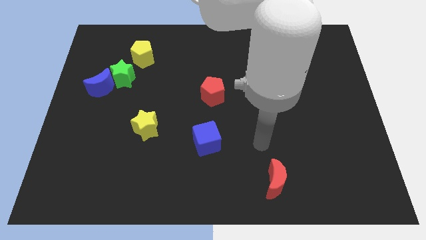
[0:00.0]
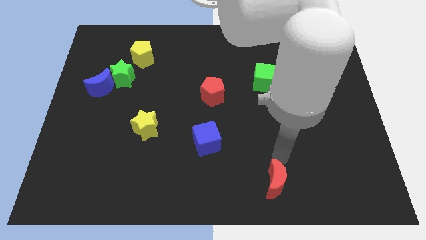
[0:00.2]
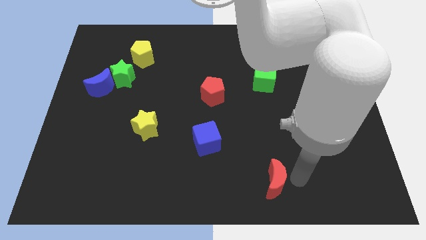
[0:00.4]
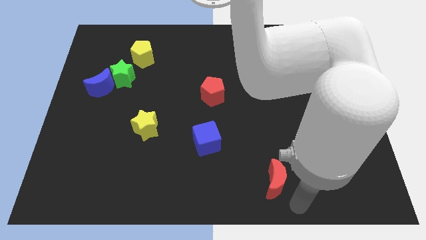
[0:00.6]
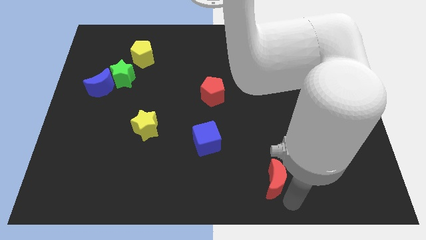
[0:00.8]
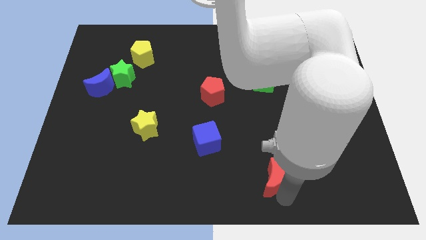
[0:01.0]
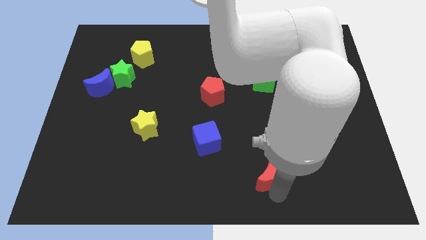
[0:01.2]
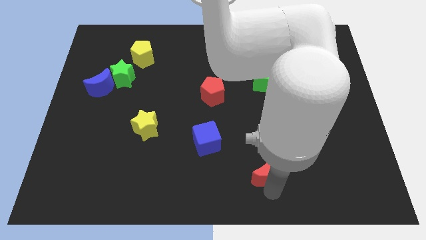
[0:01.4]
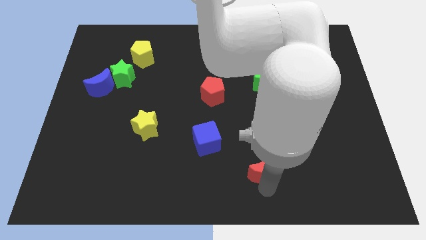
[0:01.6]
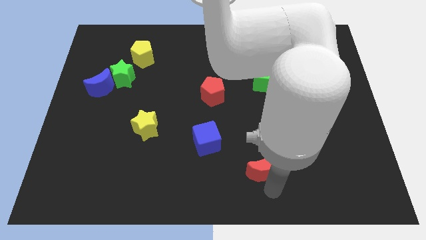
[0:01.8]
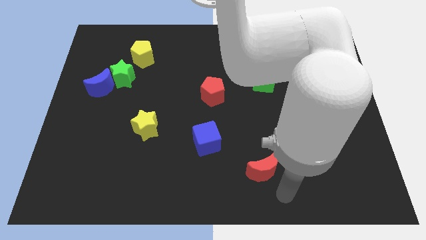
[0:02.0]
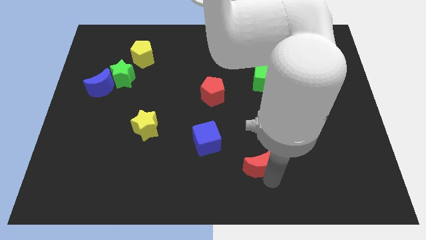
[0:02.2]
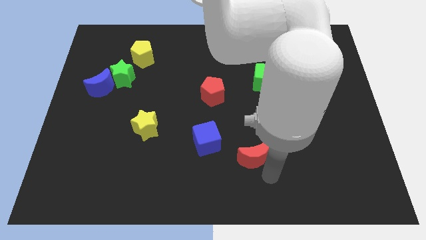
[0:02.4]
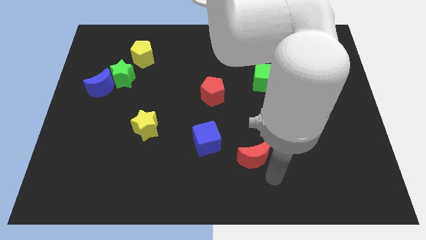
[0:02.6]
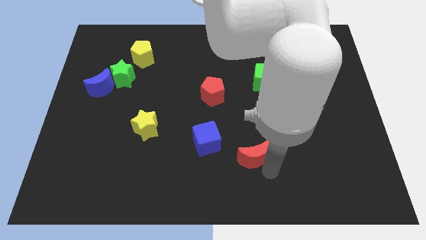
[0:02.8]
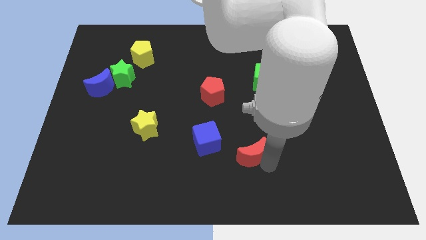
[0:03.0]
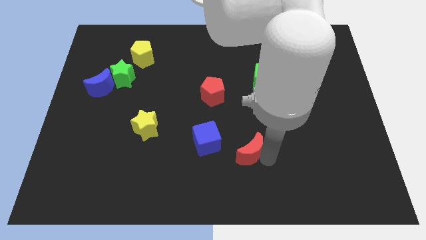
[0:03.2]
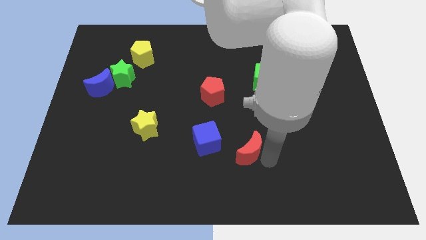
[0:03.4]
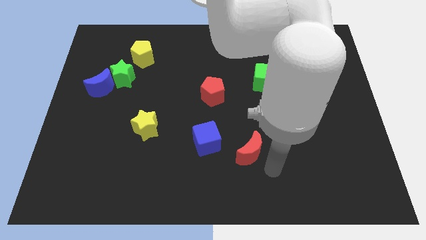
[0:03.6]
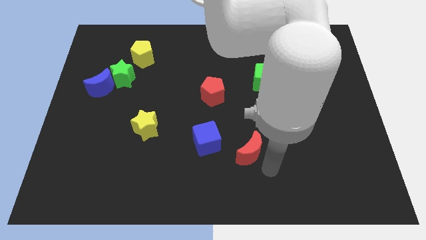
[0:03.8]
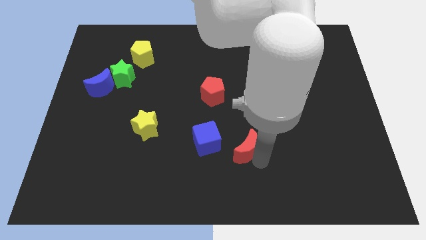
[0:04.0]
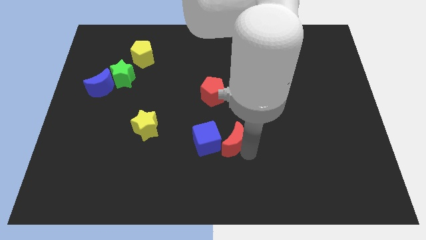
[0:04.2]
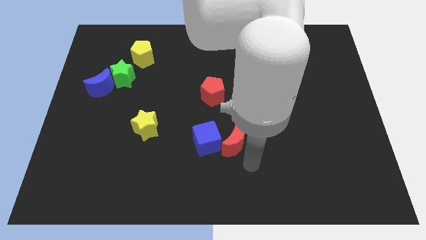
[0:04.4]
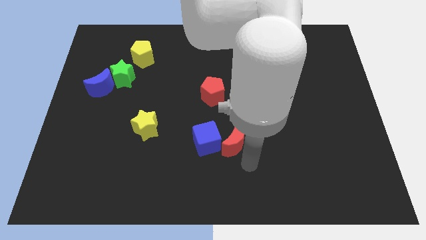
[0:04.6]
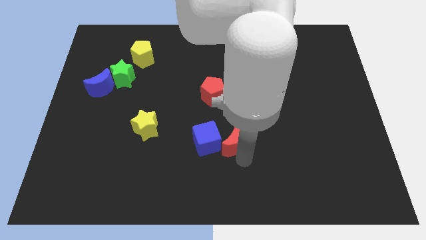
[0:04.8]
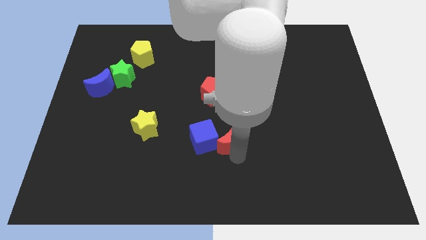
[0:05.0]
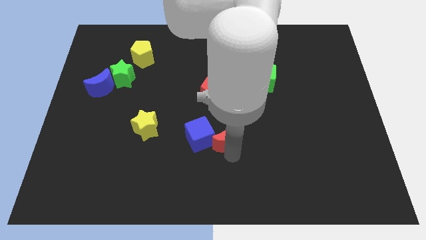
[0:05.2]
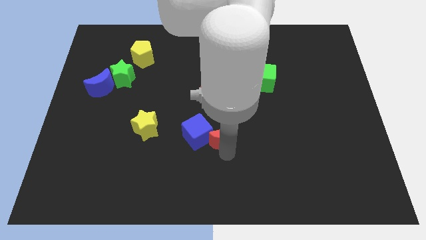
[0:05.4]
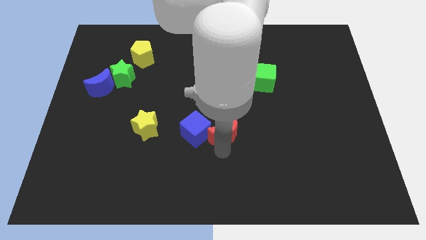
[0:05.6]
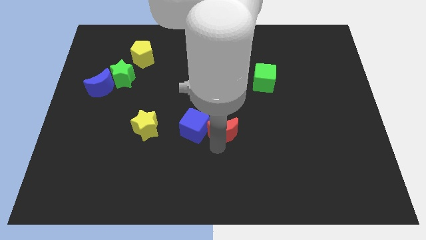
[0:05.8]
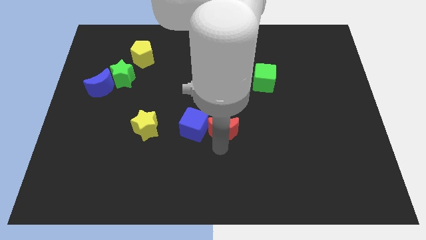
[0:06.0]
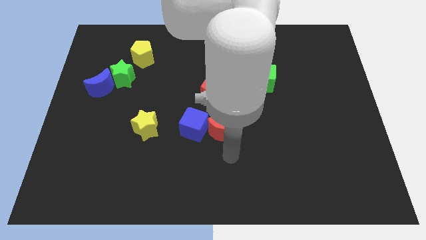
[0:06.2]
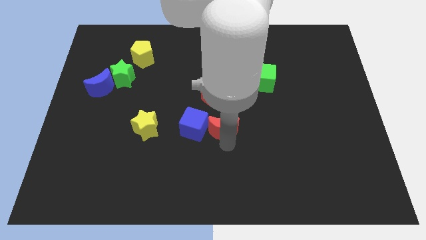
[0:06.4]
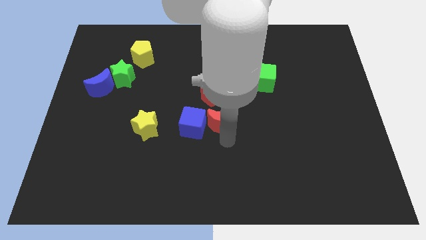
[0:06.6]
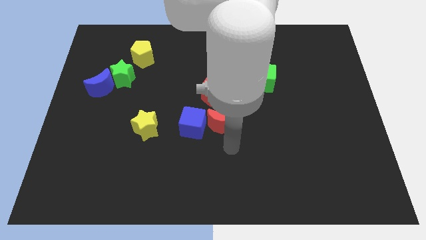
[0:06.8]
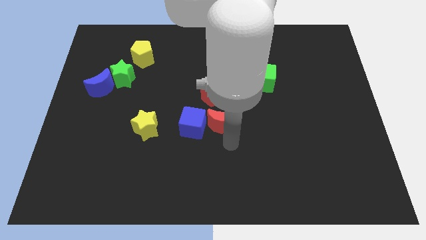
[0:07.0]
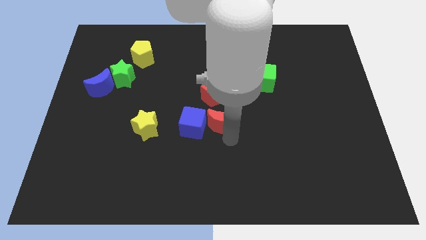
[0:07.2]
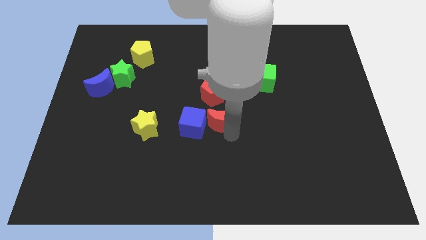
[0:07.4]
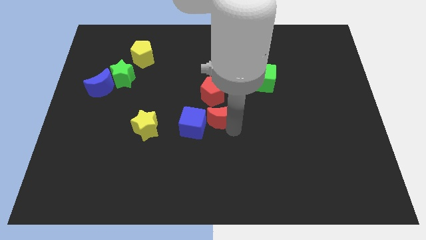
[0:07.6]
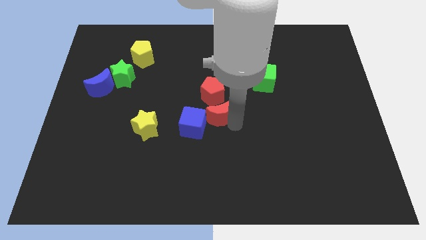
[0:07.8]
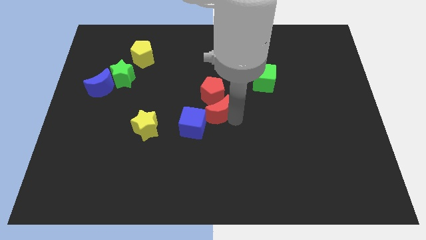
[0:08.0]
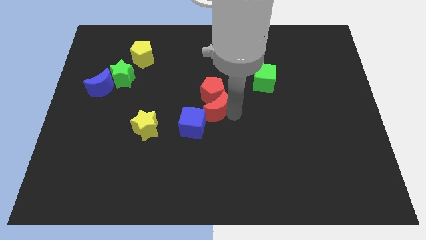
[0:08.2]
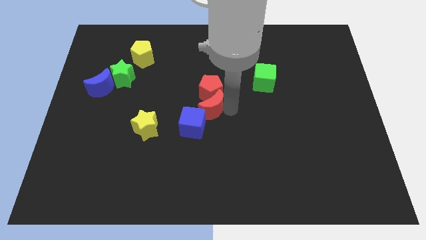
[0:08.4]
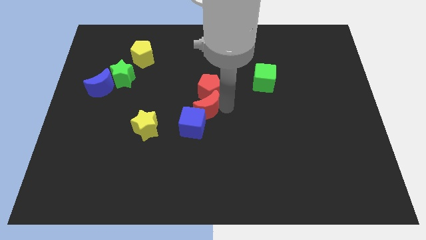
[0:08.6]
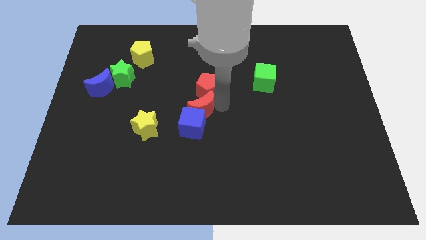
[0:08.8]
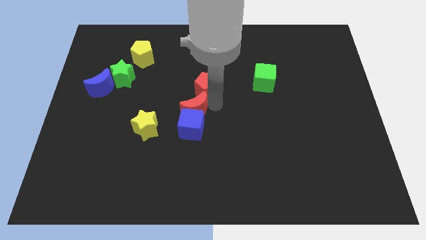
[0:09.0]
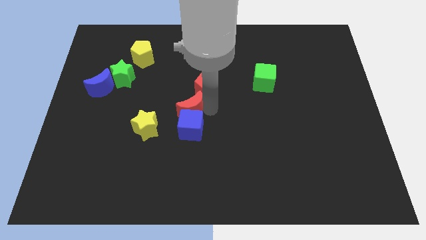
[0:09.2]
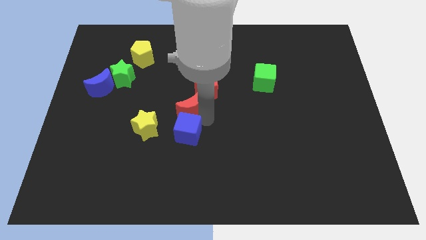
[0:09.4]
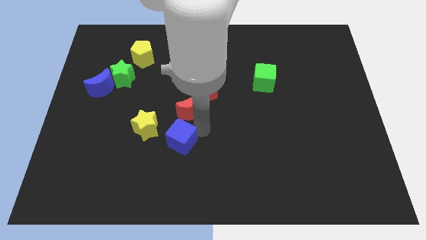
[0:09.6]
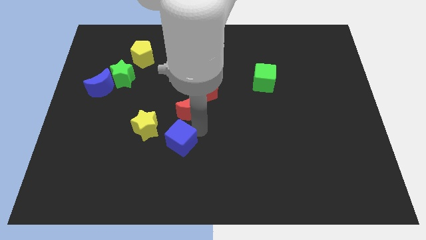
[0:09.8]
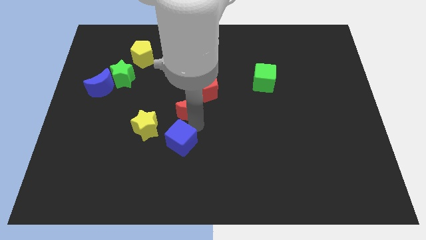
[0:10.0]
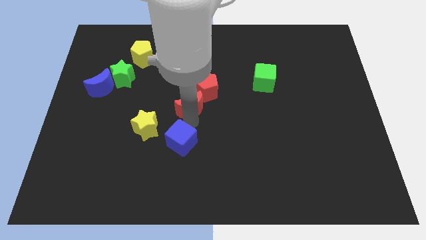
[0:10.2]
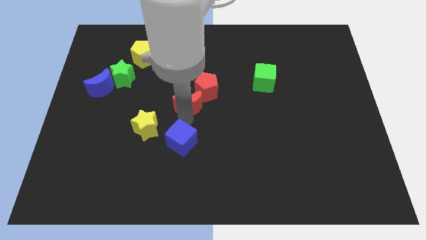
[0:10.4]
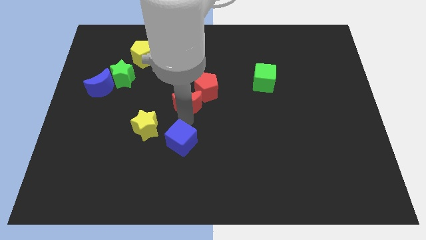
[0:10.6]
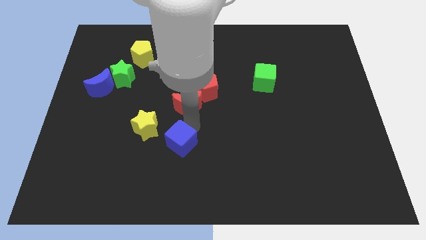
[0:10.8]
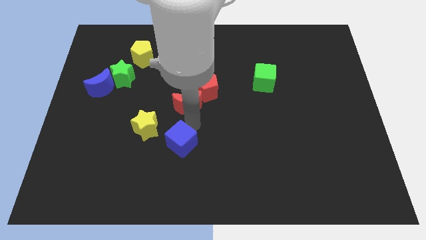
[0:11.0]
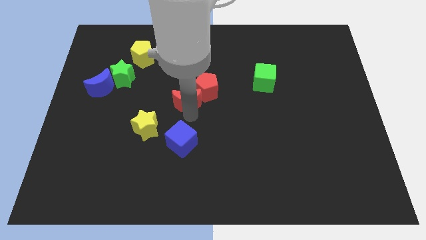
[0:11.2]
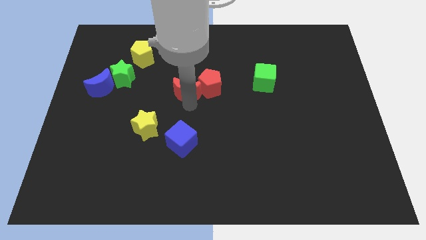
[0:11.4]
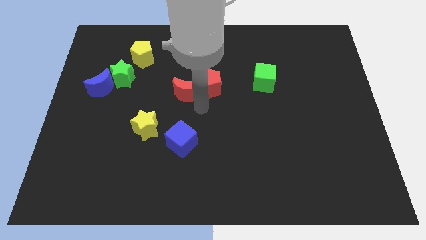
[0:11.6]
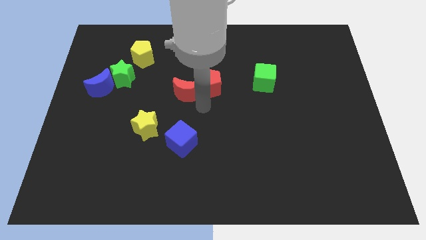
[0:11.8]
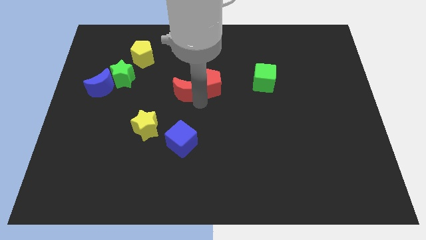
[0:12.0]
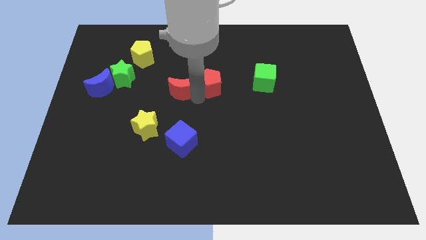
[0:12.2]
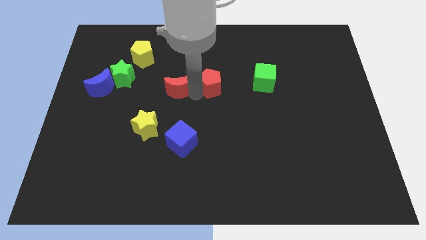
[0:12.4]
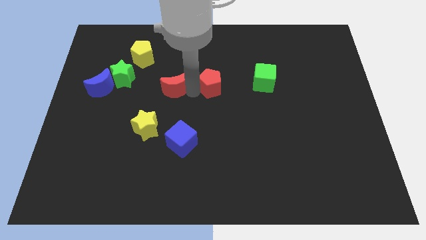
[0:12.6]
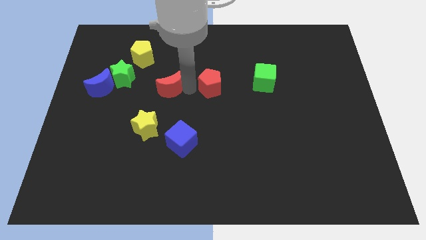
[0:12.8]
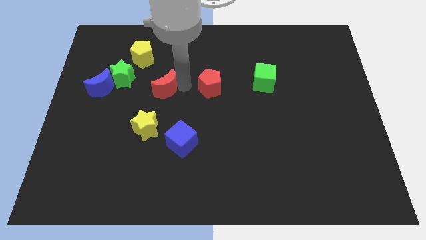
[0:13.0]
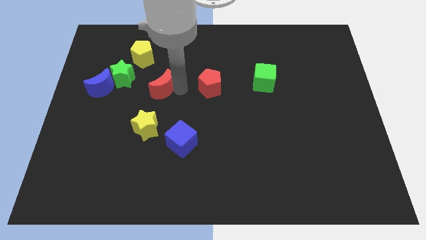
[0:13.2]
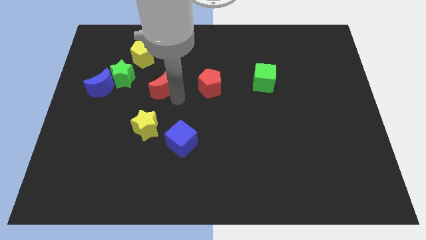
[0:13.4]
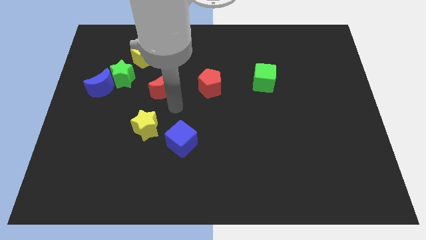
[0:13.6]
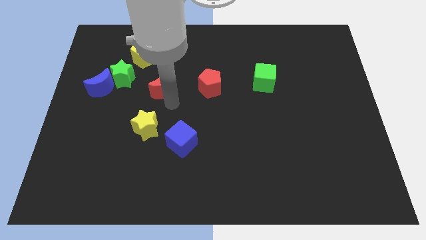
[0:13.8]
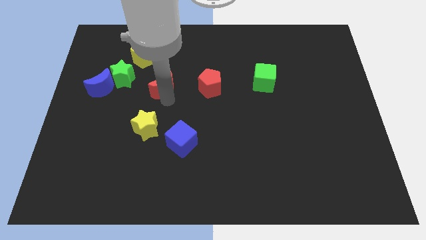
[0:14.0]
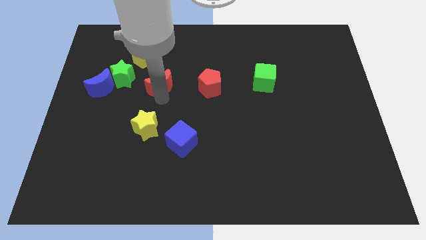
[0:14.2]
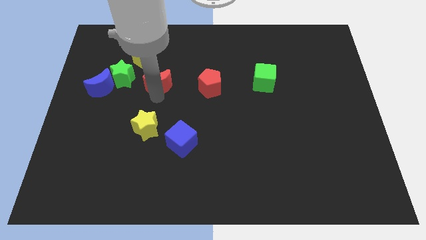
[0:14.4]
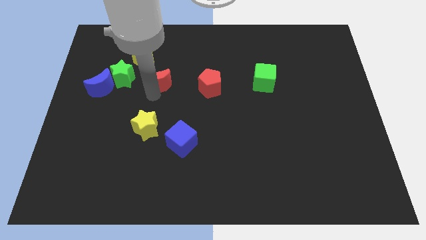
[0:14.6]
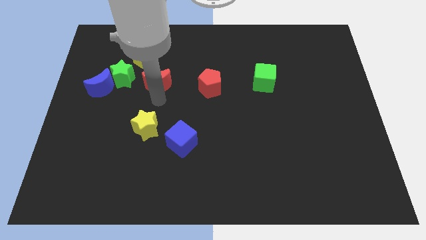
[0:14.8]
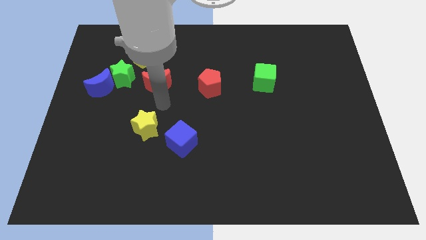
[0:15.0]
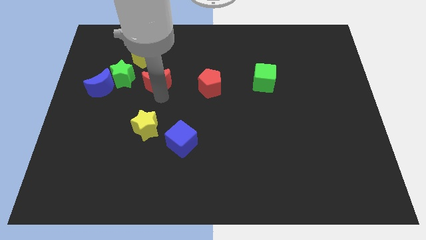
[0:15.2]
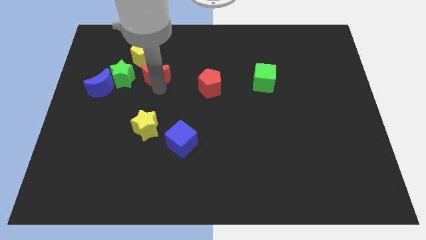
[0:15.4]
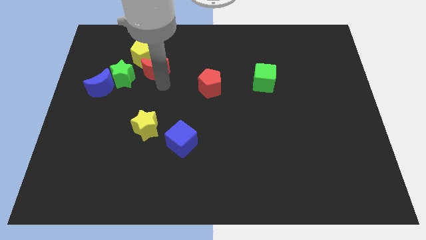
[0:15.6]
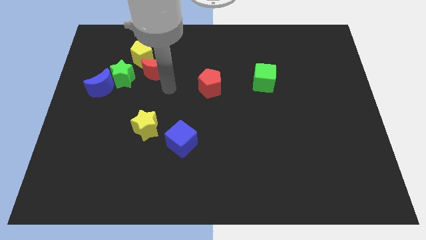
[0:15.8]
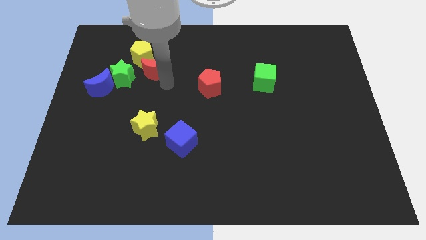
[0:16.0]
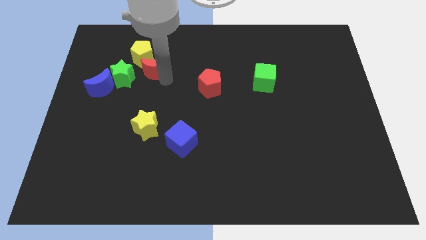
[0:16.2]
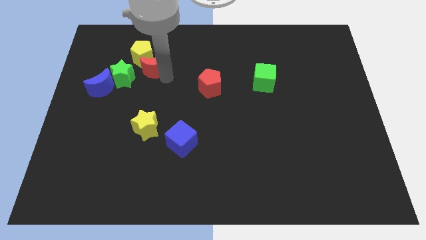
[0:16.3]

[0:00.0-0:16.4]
move the red moon close to the yellow pentagon
